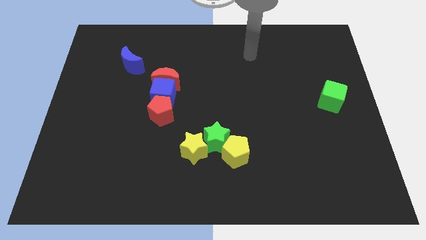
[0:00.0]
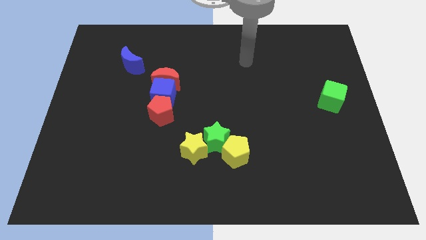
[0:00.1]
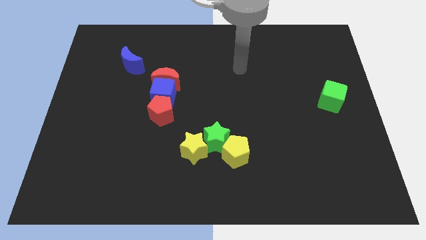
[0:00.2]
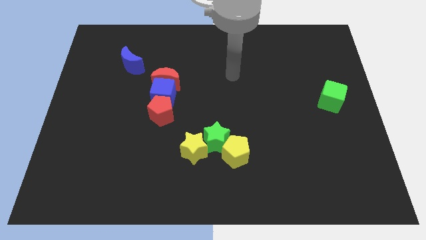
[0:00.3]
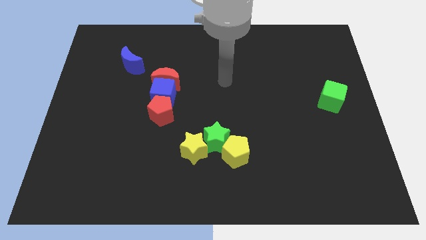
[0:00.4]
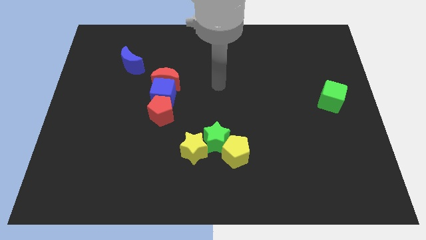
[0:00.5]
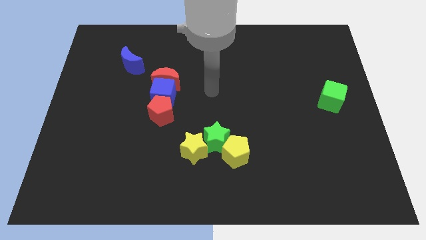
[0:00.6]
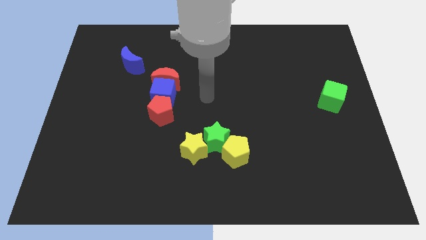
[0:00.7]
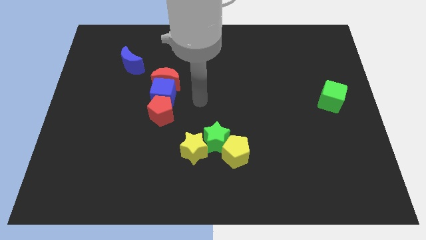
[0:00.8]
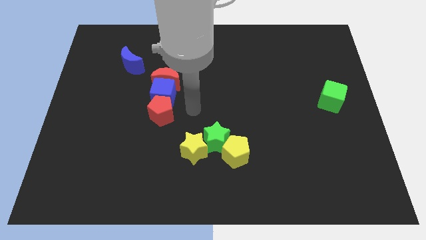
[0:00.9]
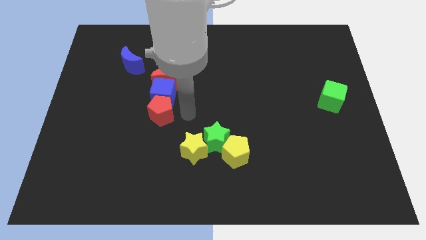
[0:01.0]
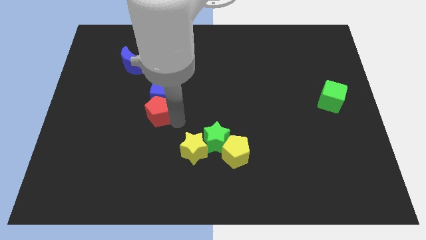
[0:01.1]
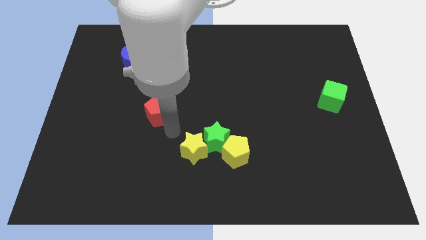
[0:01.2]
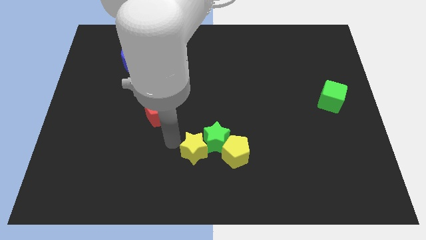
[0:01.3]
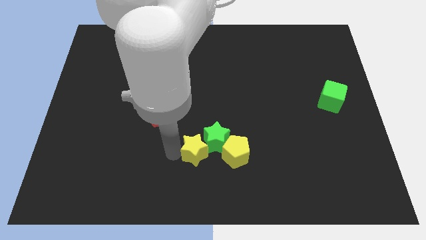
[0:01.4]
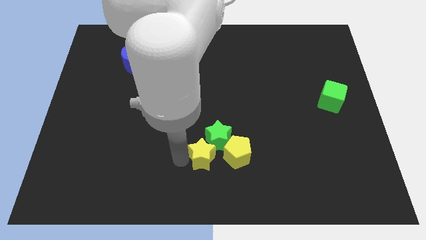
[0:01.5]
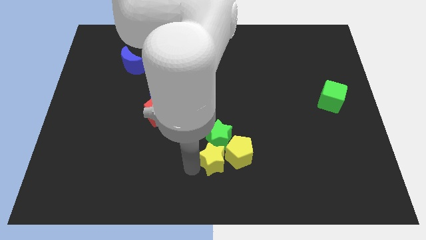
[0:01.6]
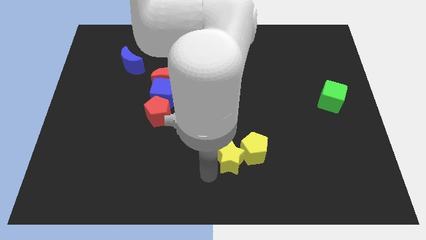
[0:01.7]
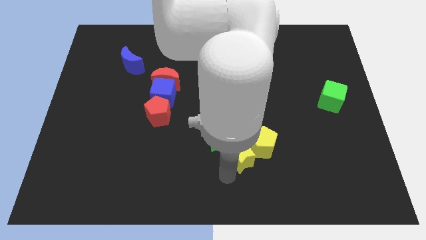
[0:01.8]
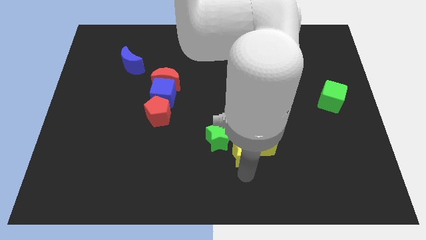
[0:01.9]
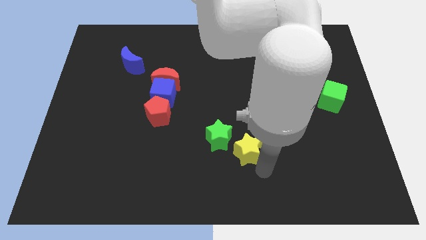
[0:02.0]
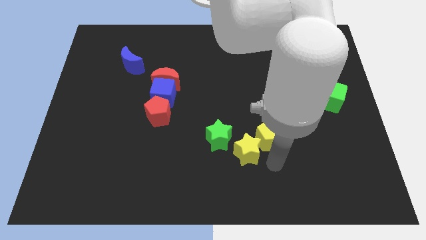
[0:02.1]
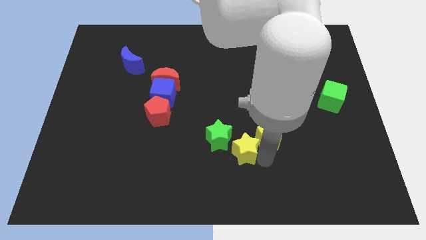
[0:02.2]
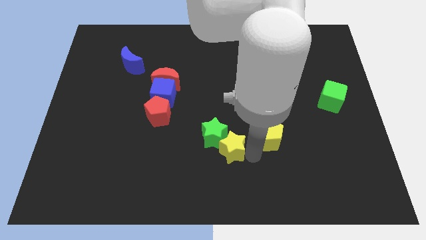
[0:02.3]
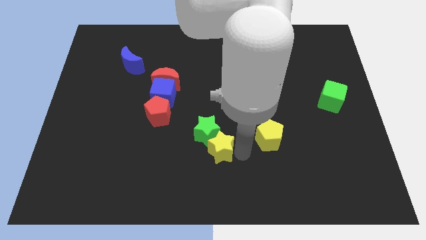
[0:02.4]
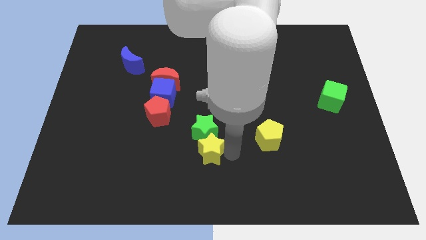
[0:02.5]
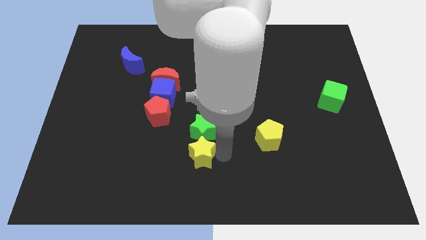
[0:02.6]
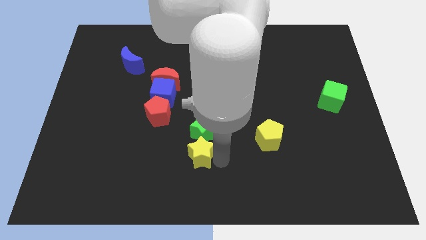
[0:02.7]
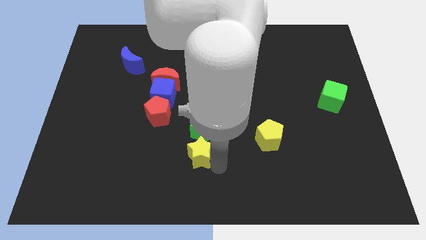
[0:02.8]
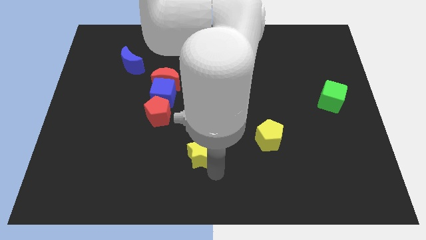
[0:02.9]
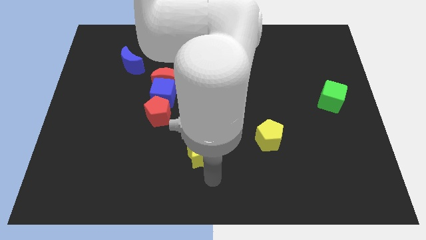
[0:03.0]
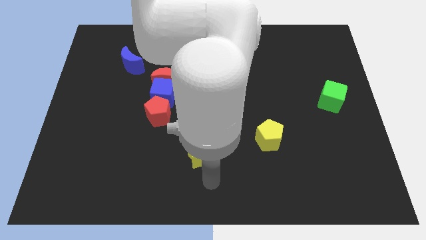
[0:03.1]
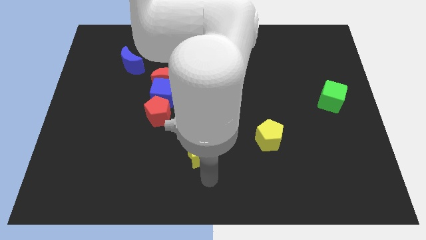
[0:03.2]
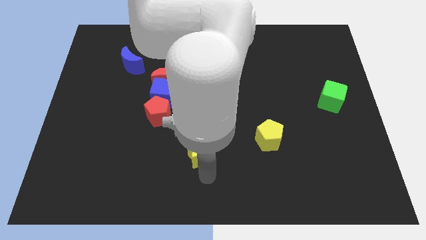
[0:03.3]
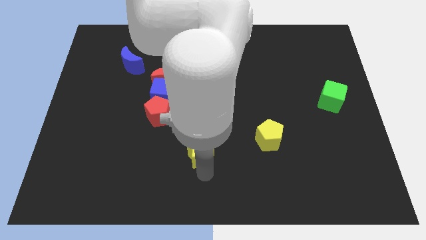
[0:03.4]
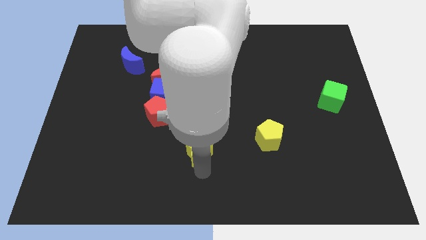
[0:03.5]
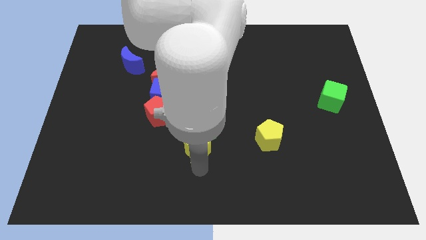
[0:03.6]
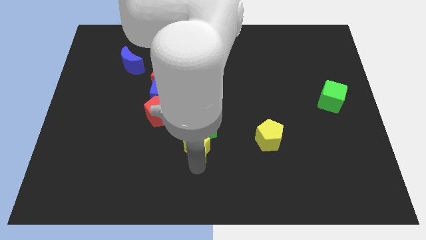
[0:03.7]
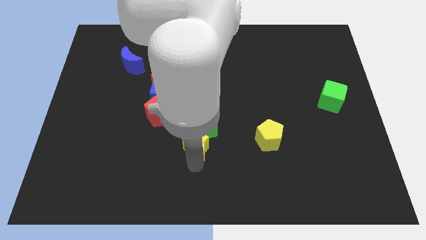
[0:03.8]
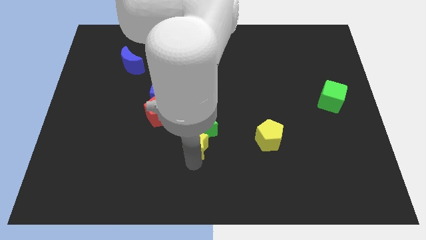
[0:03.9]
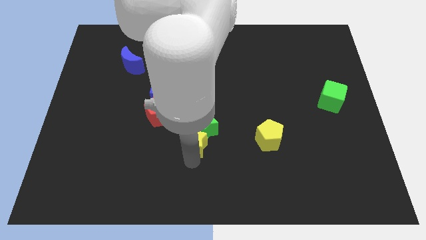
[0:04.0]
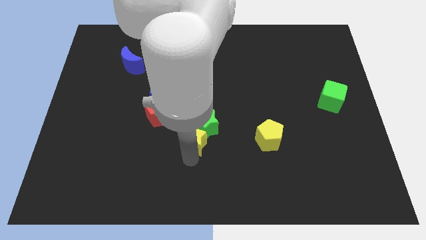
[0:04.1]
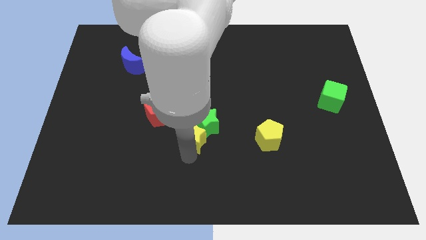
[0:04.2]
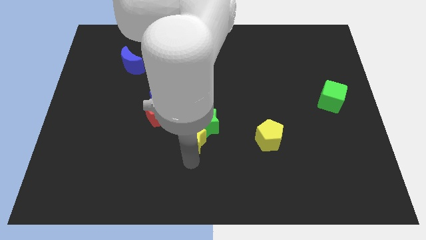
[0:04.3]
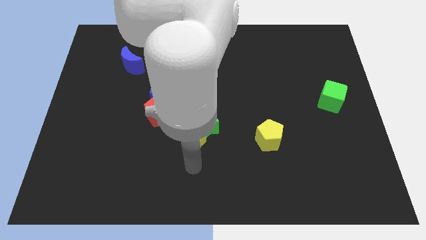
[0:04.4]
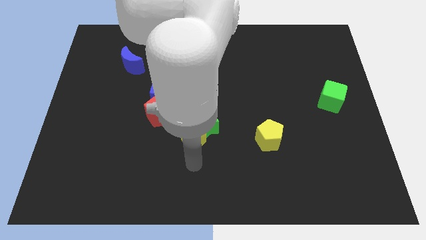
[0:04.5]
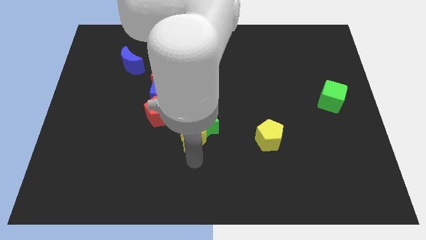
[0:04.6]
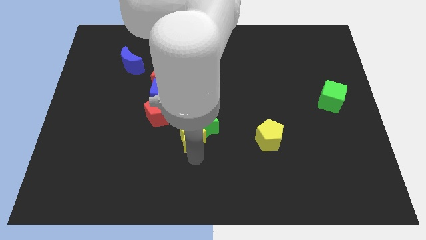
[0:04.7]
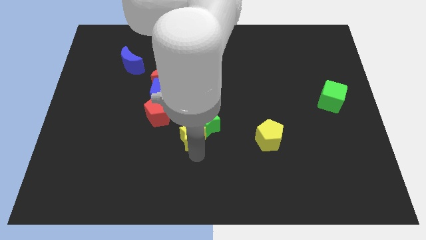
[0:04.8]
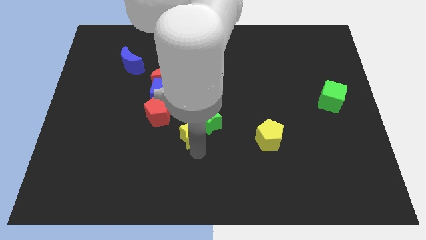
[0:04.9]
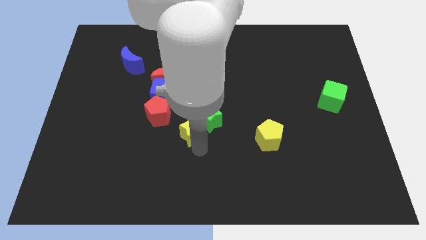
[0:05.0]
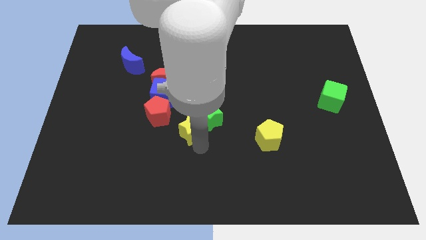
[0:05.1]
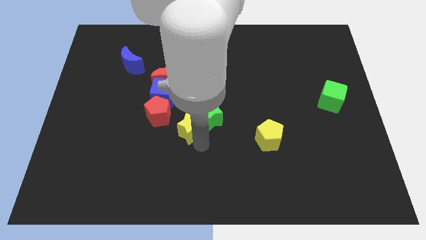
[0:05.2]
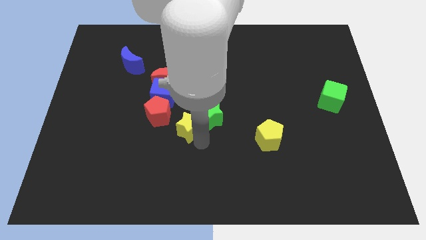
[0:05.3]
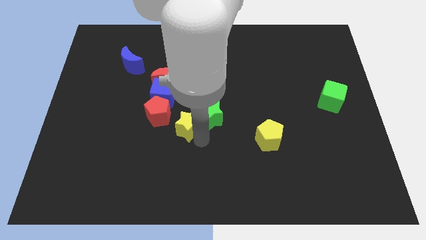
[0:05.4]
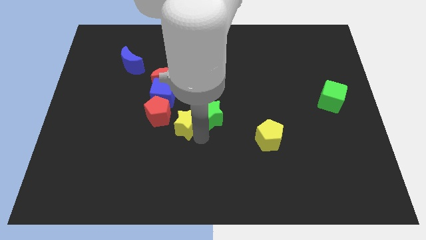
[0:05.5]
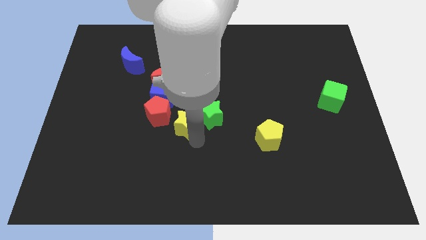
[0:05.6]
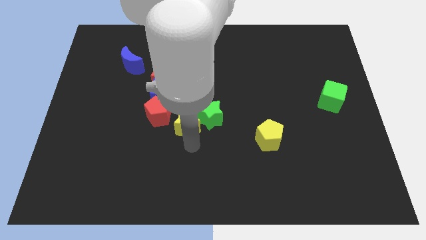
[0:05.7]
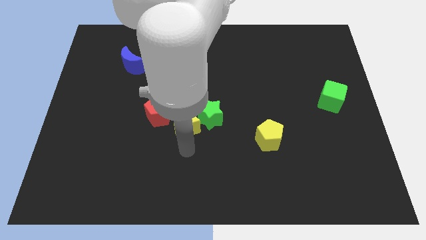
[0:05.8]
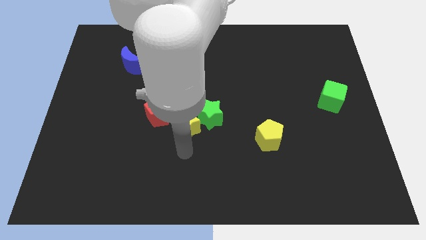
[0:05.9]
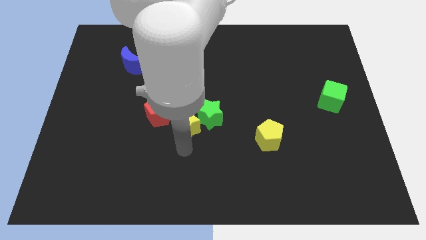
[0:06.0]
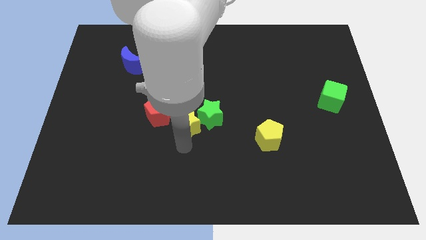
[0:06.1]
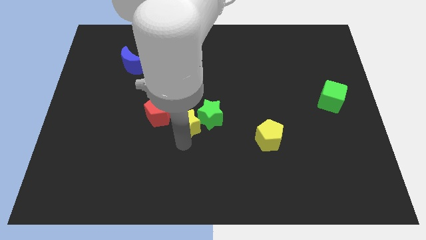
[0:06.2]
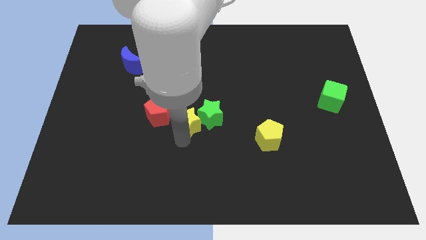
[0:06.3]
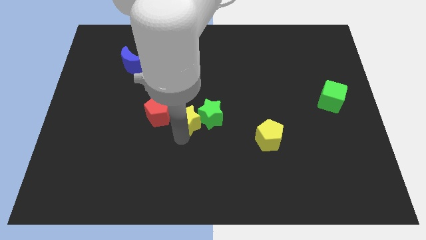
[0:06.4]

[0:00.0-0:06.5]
push the yellow star somewhat up

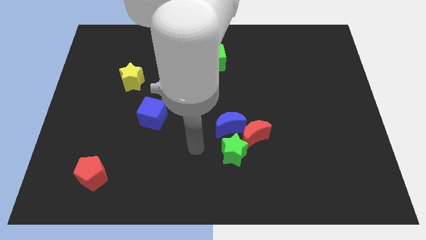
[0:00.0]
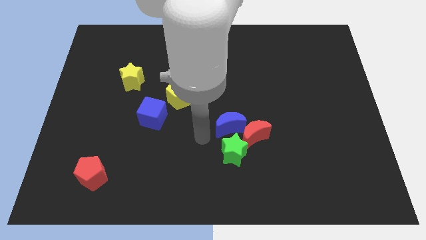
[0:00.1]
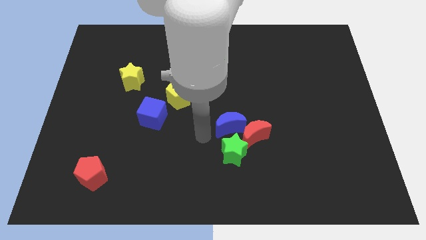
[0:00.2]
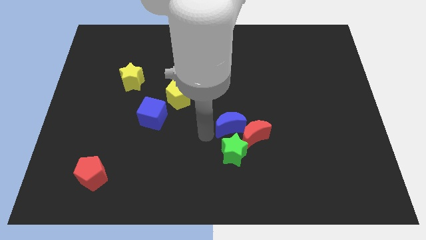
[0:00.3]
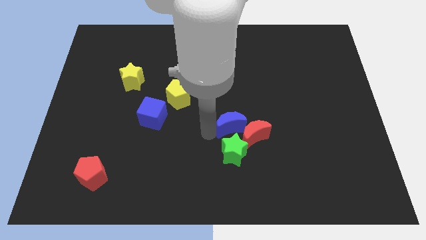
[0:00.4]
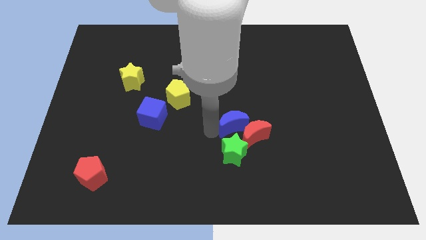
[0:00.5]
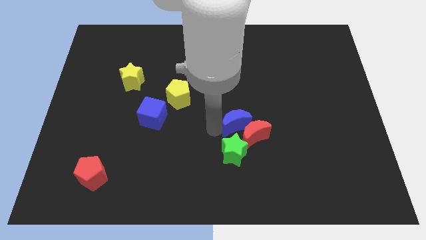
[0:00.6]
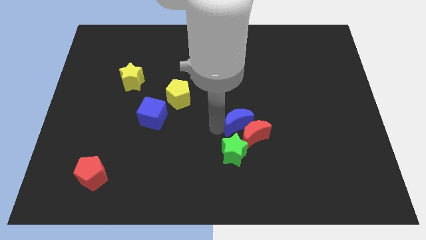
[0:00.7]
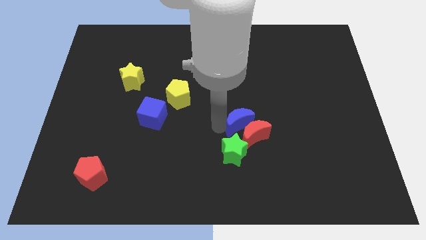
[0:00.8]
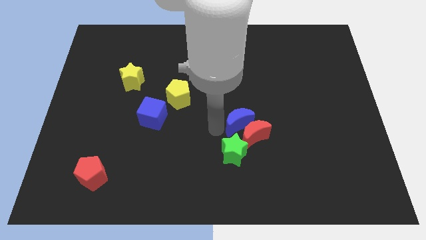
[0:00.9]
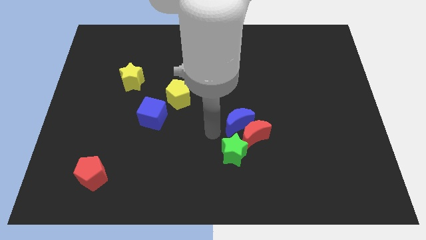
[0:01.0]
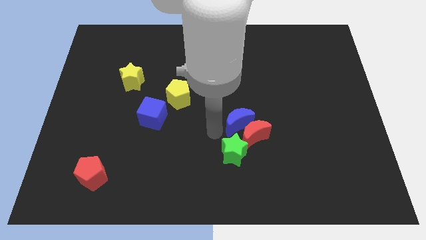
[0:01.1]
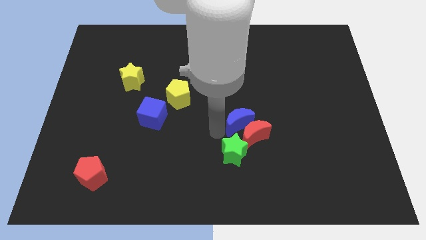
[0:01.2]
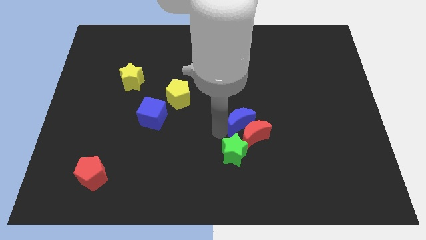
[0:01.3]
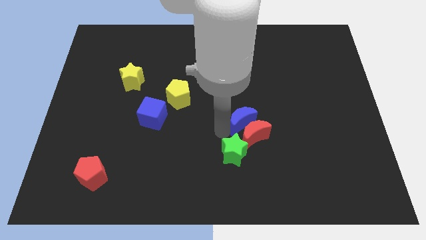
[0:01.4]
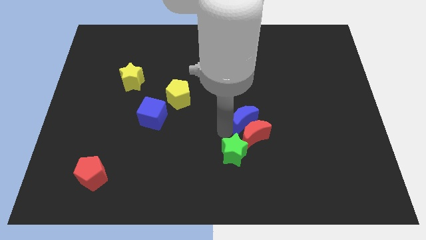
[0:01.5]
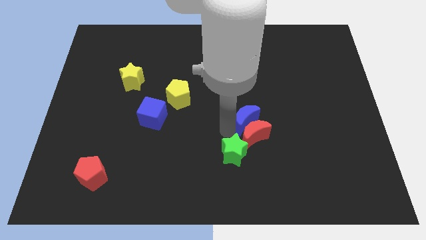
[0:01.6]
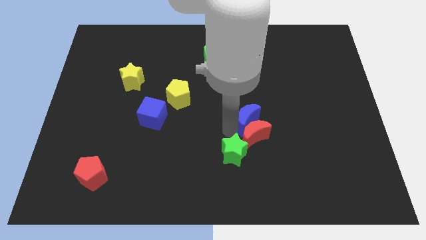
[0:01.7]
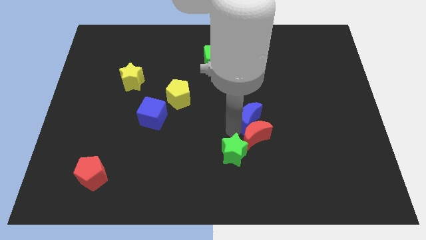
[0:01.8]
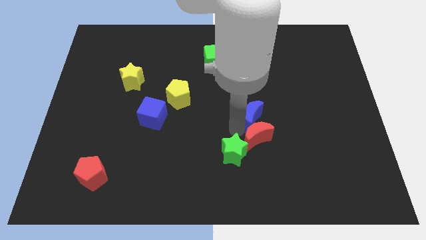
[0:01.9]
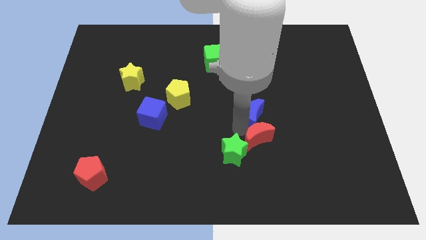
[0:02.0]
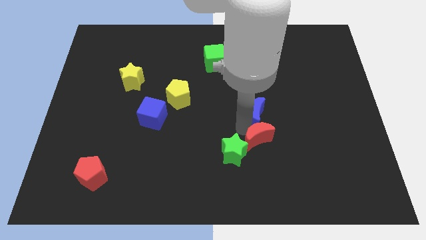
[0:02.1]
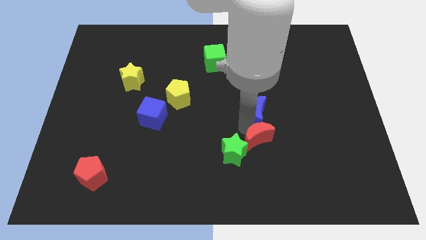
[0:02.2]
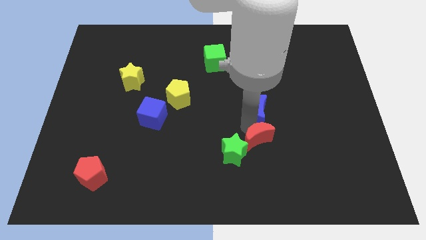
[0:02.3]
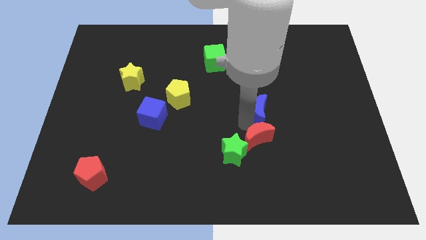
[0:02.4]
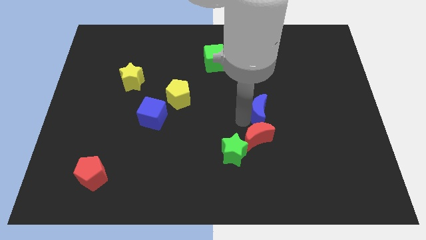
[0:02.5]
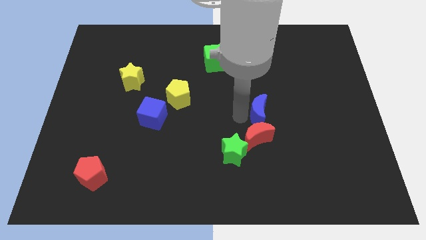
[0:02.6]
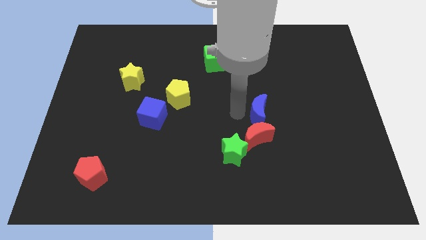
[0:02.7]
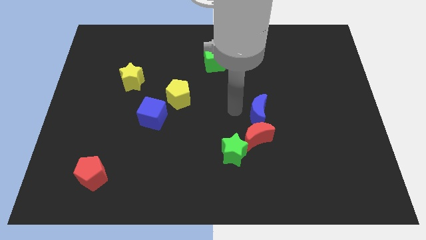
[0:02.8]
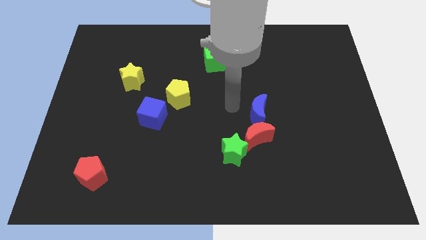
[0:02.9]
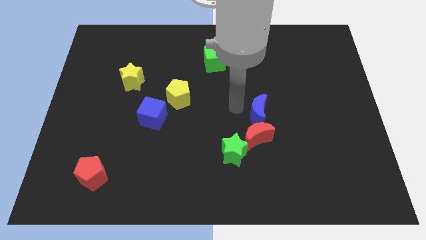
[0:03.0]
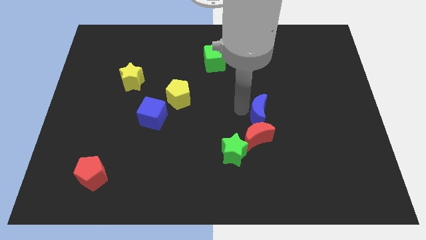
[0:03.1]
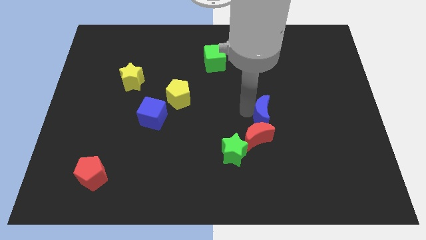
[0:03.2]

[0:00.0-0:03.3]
slightly move the blue moon right
